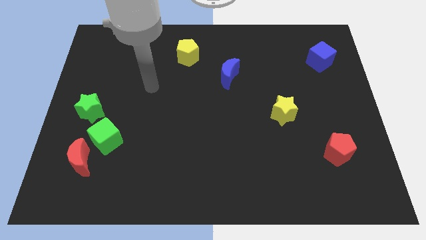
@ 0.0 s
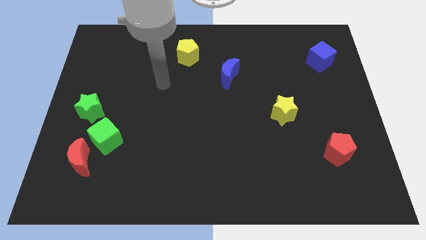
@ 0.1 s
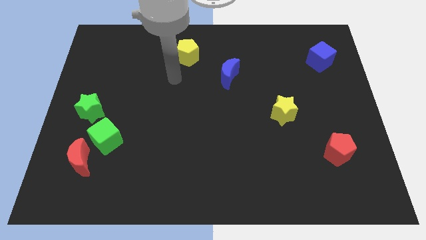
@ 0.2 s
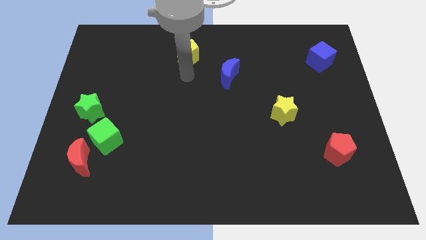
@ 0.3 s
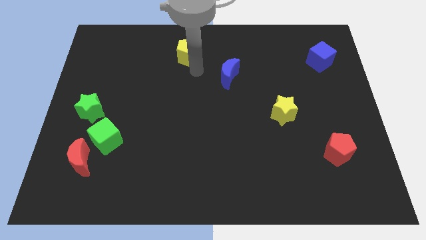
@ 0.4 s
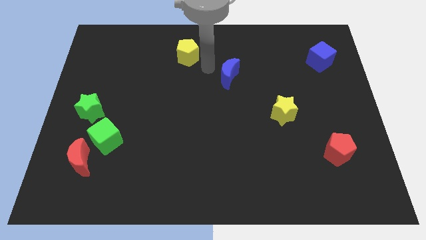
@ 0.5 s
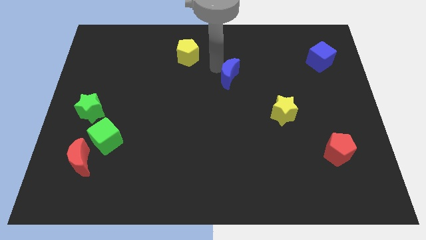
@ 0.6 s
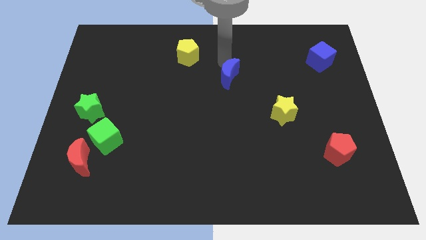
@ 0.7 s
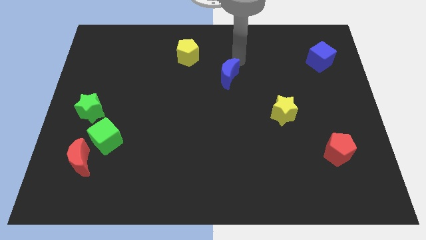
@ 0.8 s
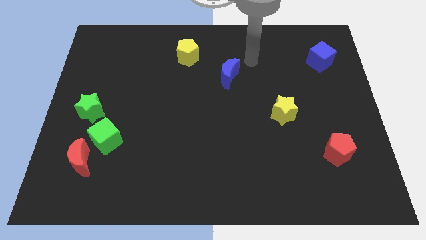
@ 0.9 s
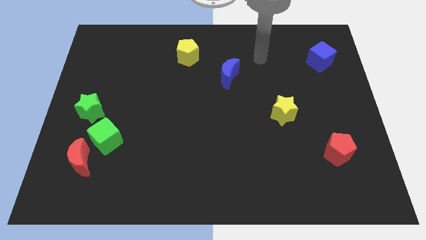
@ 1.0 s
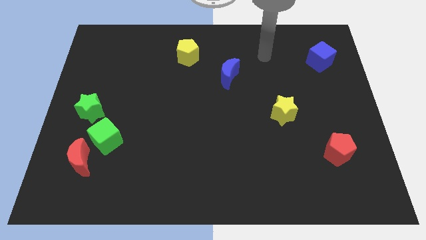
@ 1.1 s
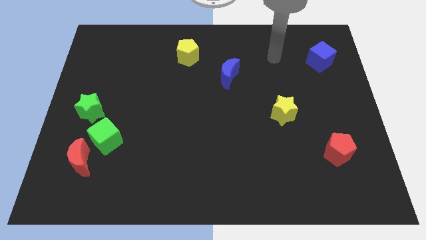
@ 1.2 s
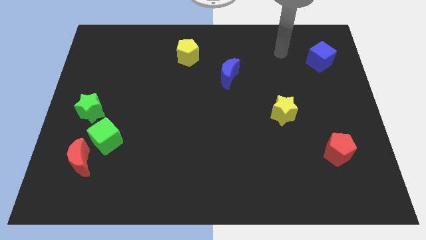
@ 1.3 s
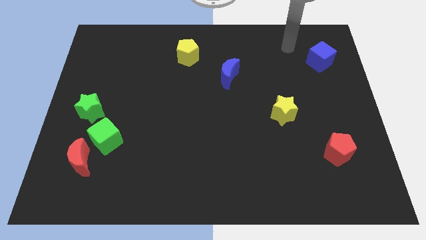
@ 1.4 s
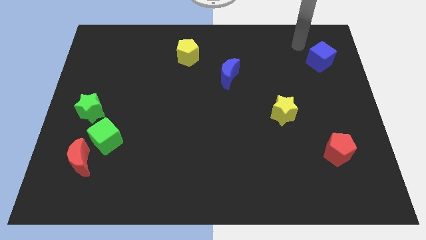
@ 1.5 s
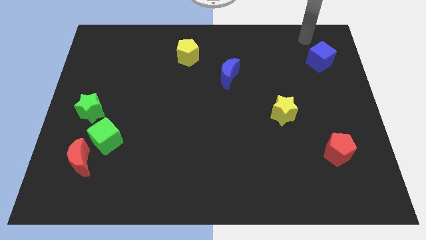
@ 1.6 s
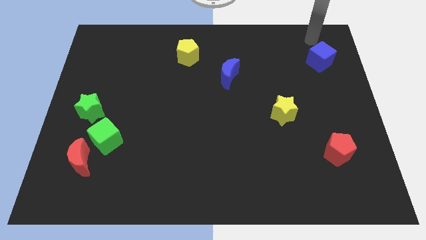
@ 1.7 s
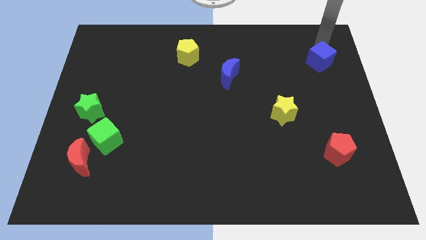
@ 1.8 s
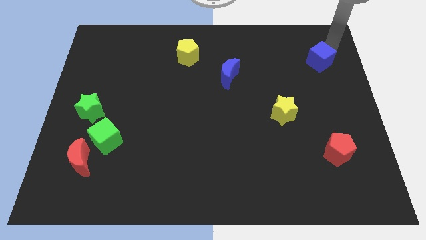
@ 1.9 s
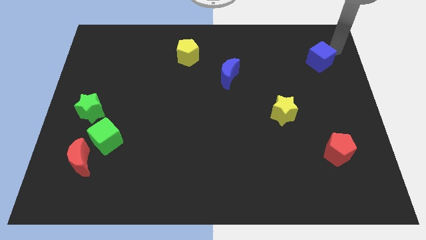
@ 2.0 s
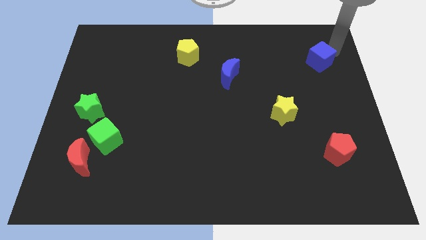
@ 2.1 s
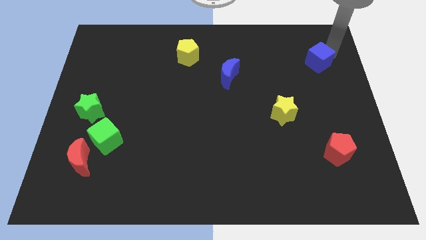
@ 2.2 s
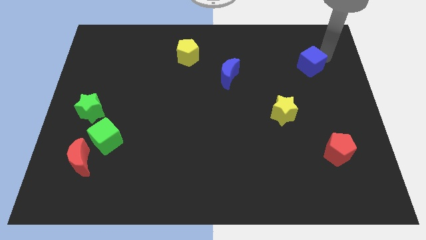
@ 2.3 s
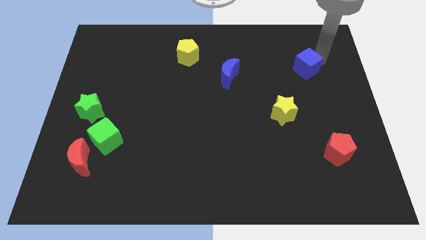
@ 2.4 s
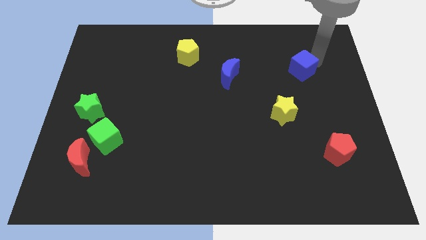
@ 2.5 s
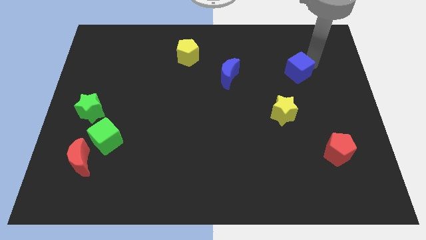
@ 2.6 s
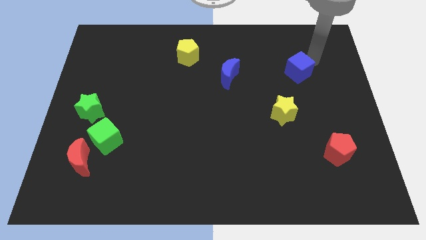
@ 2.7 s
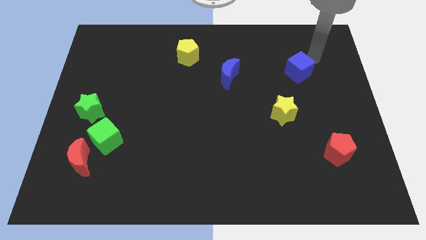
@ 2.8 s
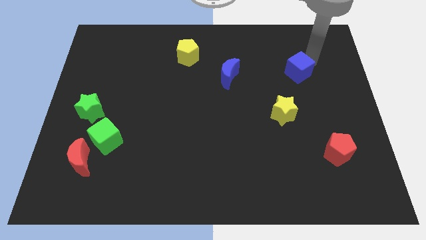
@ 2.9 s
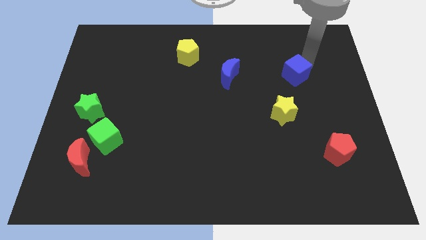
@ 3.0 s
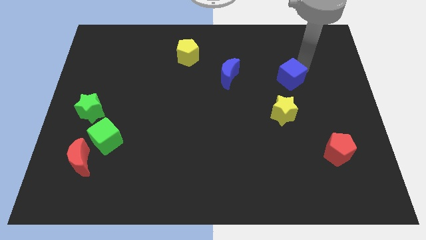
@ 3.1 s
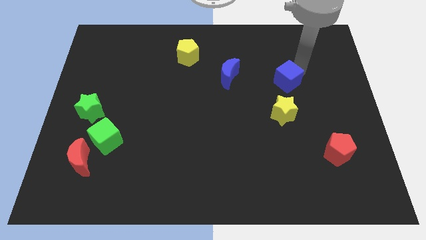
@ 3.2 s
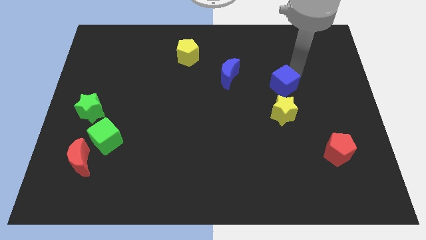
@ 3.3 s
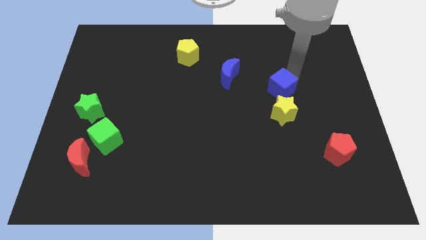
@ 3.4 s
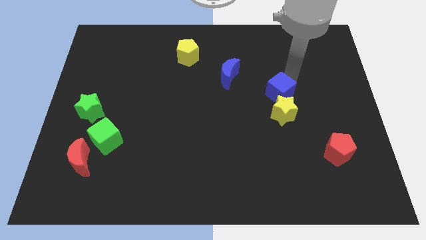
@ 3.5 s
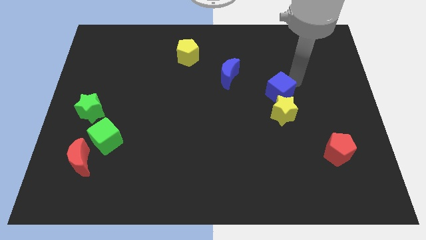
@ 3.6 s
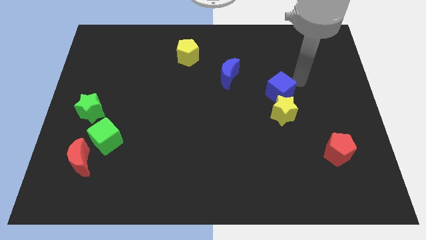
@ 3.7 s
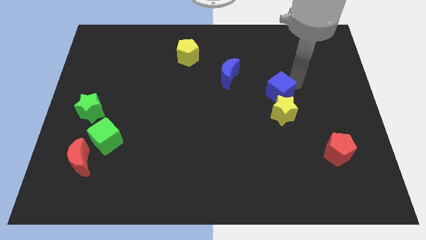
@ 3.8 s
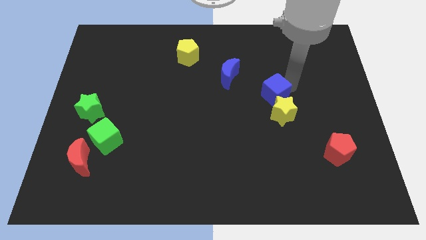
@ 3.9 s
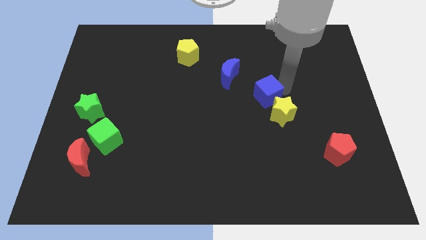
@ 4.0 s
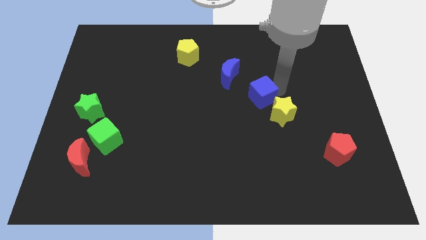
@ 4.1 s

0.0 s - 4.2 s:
move the blue cube down and to the left diagonally

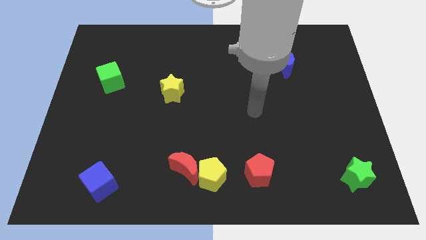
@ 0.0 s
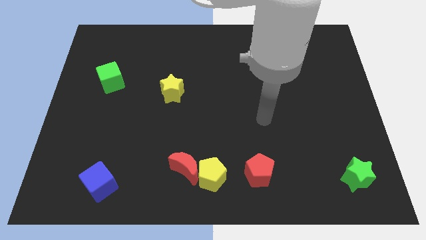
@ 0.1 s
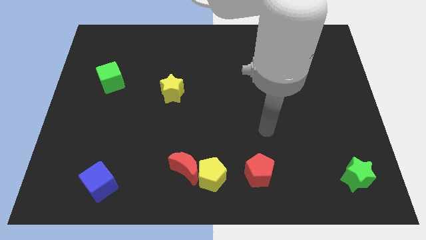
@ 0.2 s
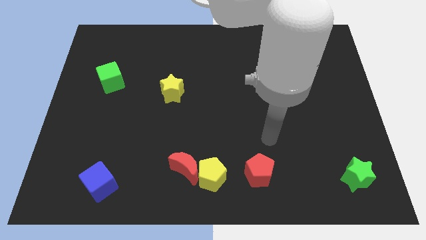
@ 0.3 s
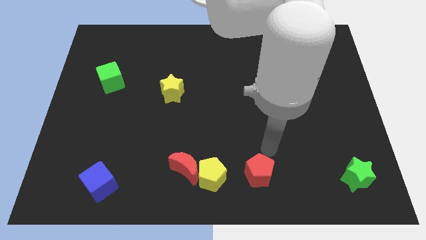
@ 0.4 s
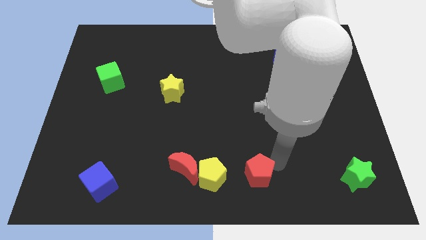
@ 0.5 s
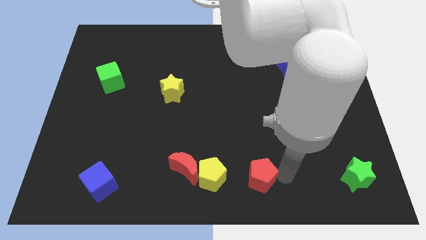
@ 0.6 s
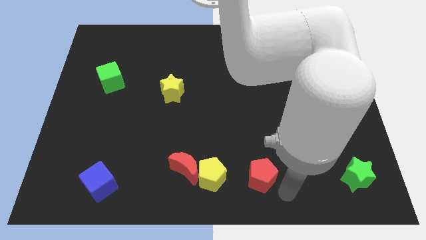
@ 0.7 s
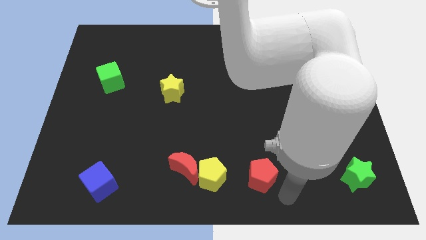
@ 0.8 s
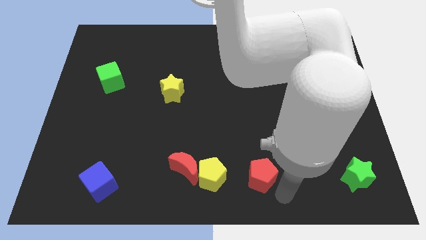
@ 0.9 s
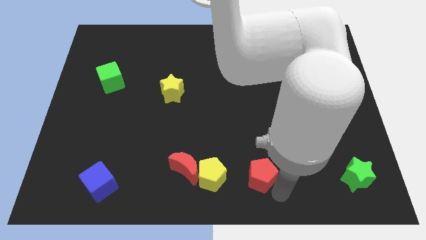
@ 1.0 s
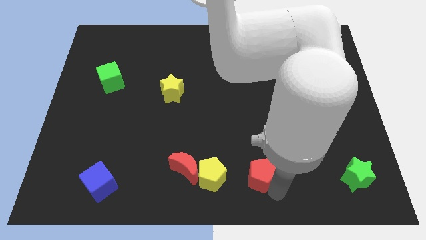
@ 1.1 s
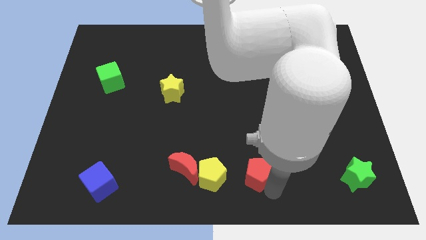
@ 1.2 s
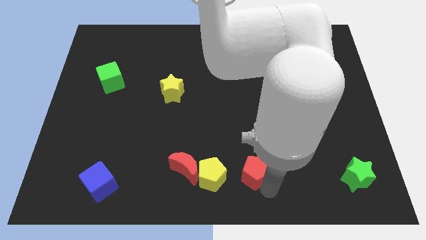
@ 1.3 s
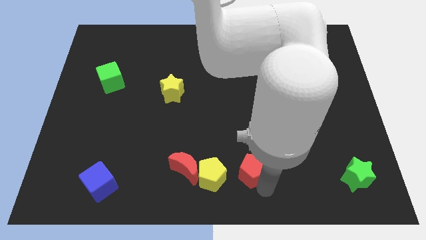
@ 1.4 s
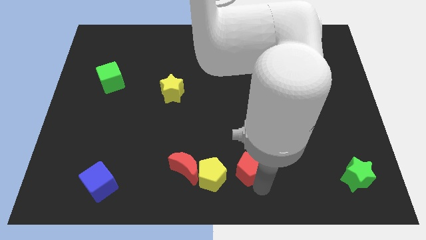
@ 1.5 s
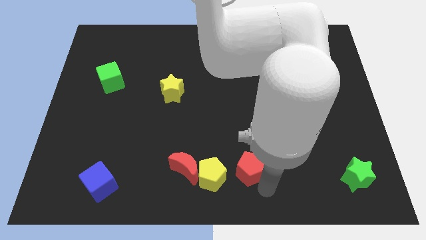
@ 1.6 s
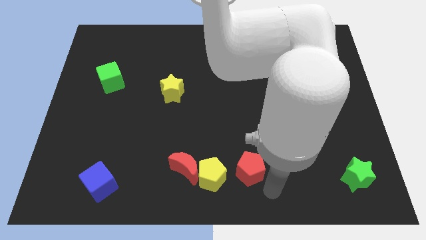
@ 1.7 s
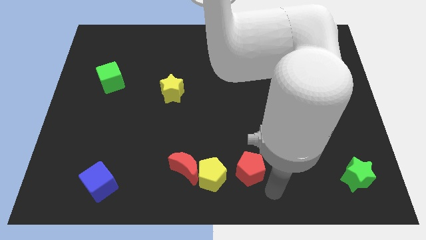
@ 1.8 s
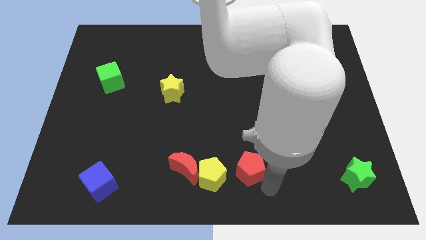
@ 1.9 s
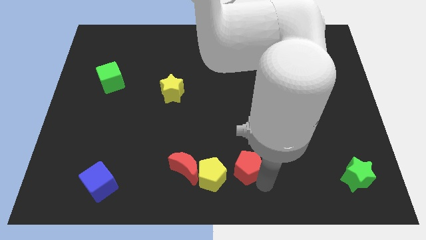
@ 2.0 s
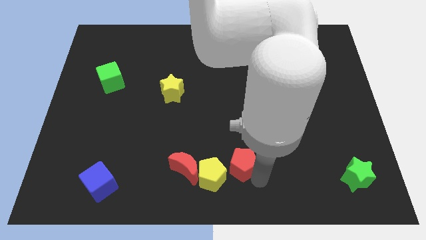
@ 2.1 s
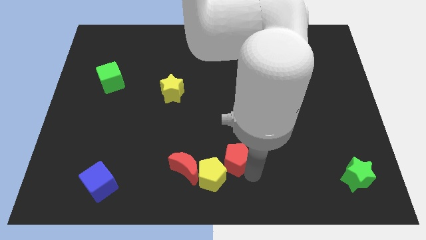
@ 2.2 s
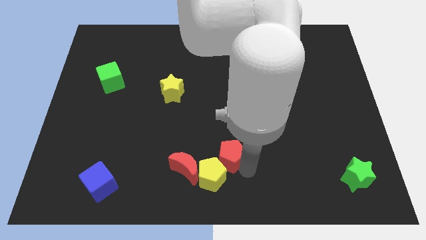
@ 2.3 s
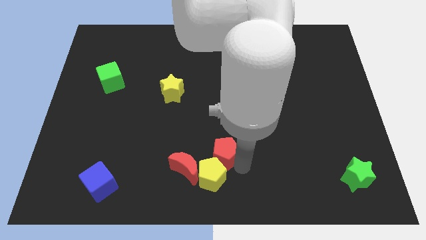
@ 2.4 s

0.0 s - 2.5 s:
slightly push the red pentagon up and then to the left

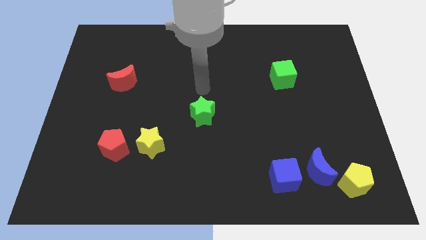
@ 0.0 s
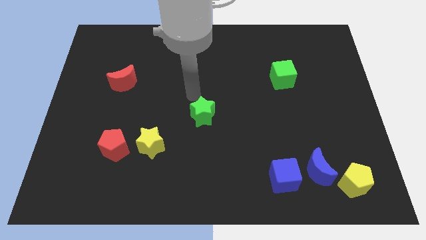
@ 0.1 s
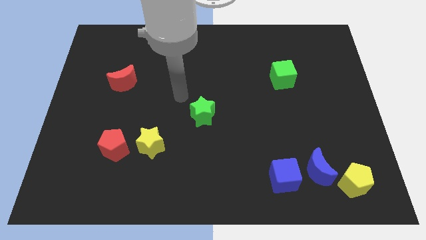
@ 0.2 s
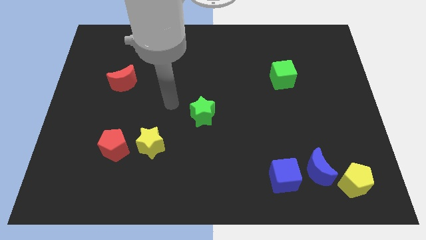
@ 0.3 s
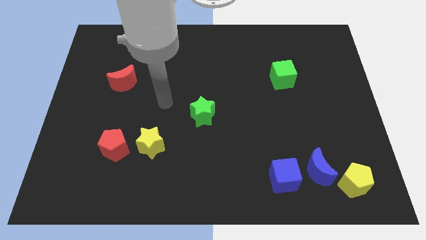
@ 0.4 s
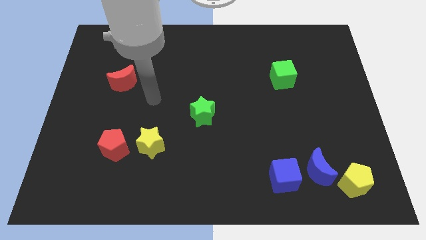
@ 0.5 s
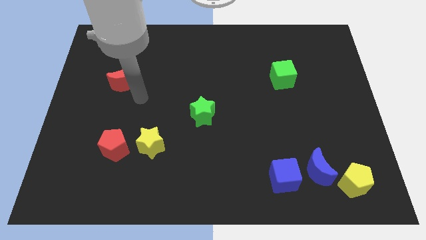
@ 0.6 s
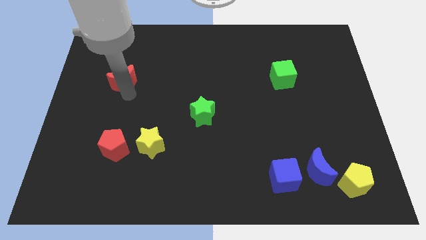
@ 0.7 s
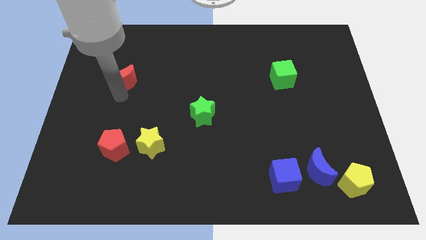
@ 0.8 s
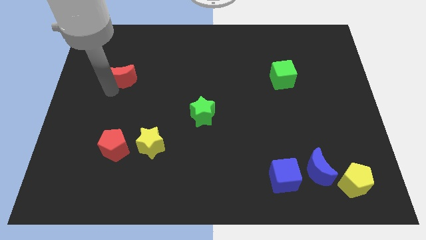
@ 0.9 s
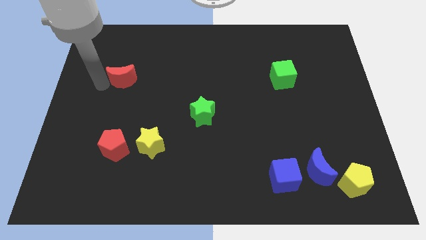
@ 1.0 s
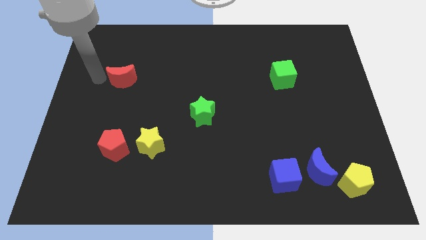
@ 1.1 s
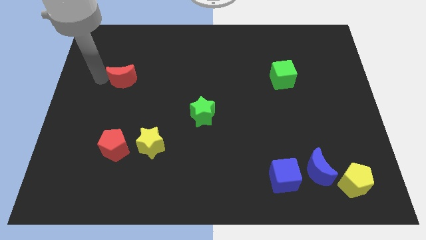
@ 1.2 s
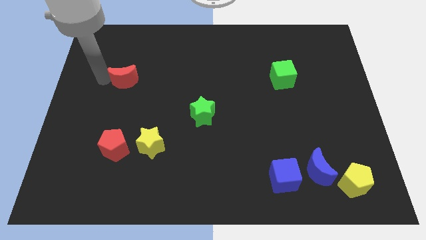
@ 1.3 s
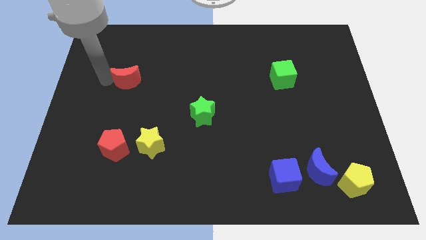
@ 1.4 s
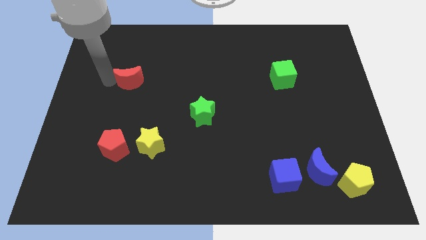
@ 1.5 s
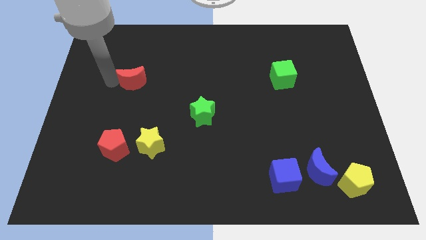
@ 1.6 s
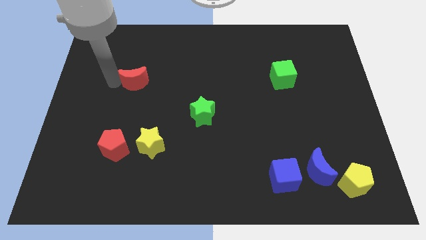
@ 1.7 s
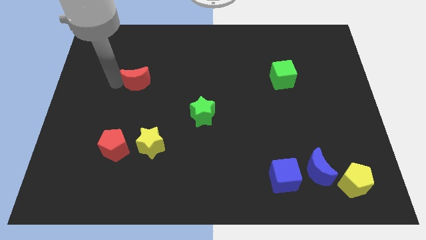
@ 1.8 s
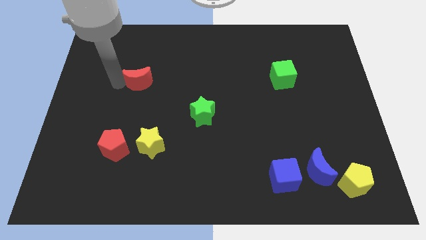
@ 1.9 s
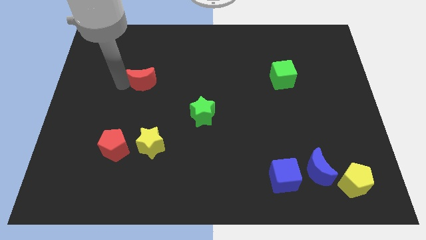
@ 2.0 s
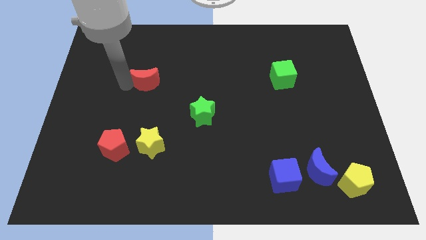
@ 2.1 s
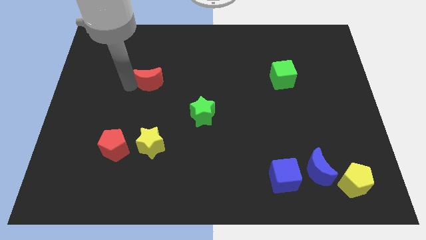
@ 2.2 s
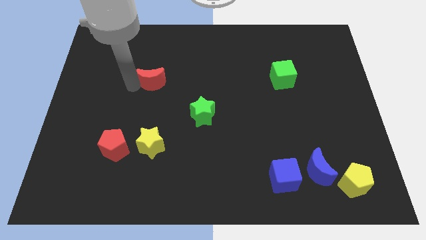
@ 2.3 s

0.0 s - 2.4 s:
slightly move the red moon right
